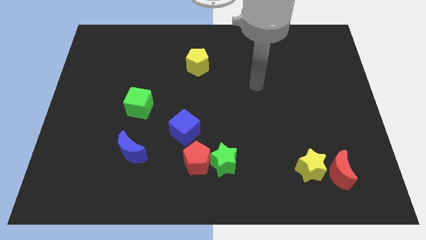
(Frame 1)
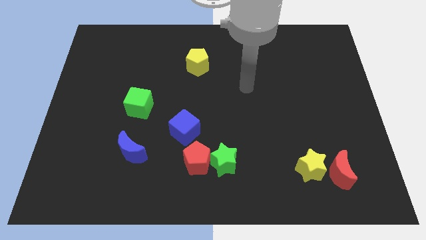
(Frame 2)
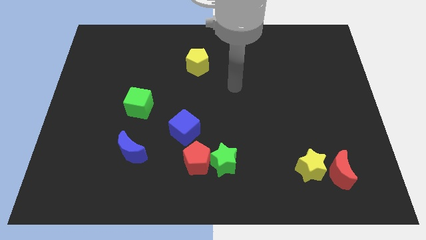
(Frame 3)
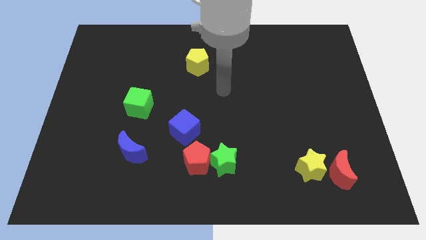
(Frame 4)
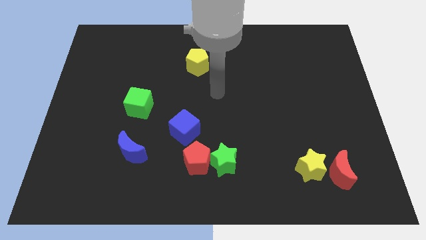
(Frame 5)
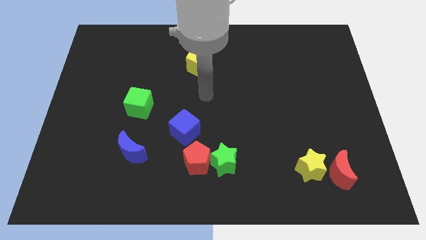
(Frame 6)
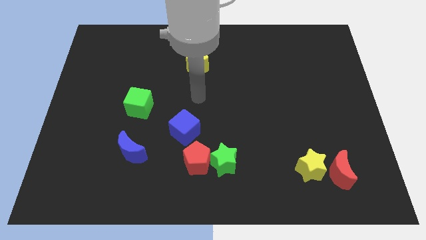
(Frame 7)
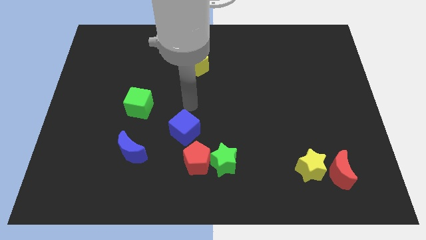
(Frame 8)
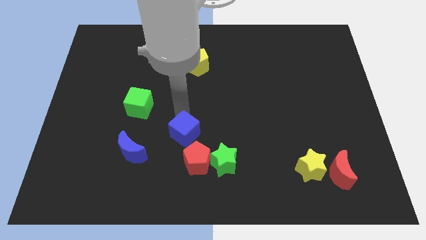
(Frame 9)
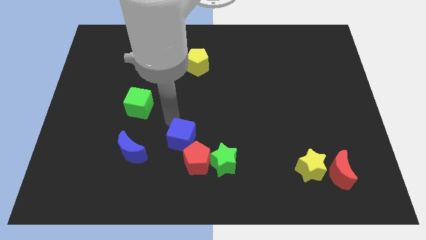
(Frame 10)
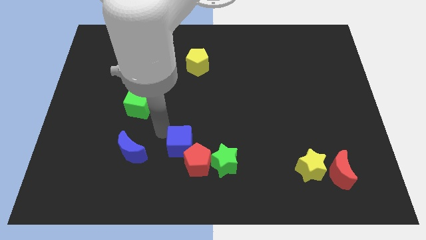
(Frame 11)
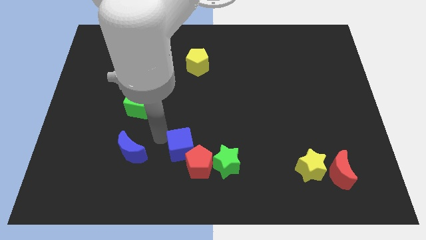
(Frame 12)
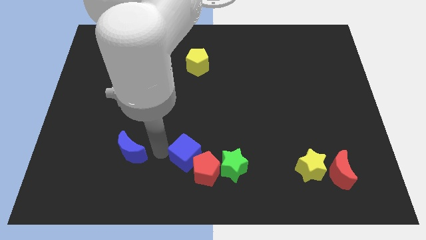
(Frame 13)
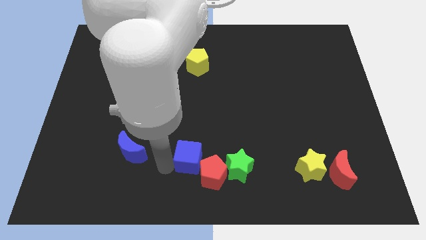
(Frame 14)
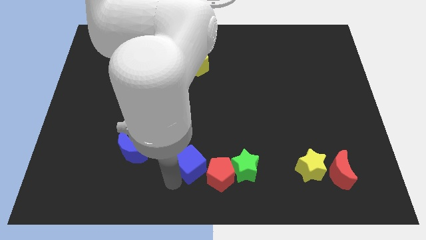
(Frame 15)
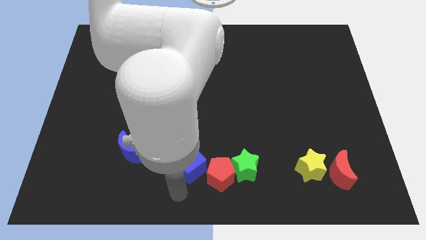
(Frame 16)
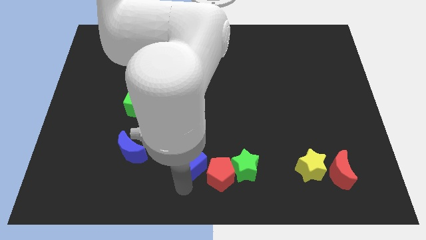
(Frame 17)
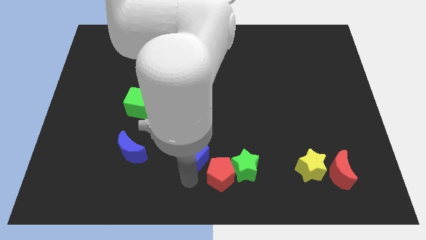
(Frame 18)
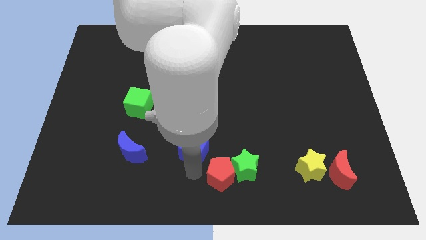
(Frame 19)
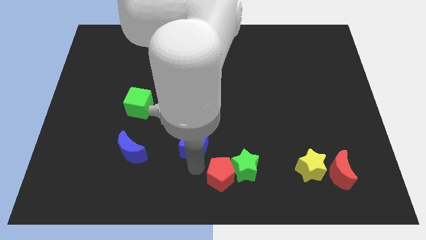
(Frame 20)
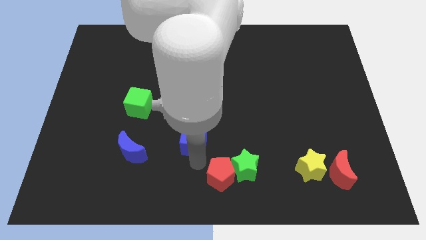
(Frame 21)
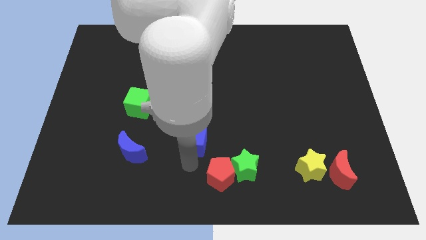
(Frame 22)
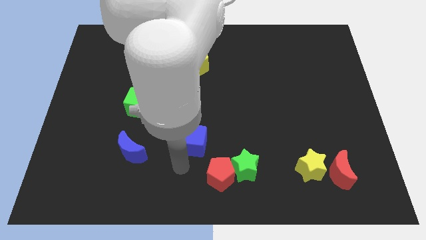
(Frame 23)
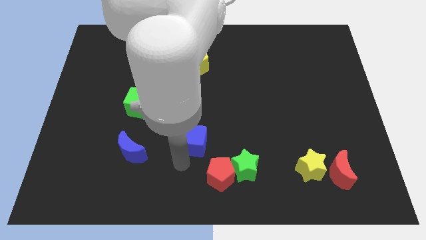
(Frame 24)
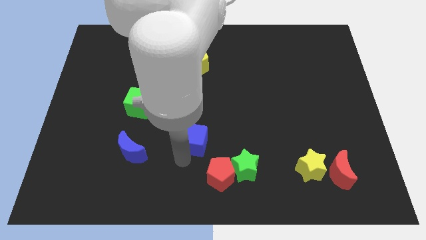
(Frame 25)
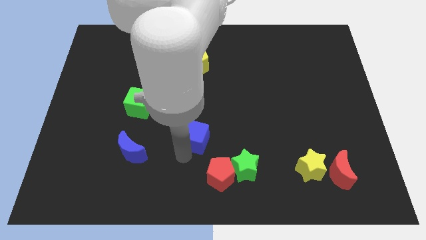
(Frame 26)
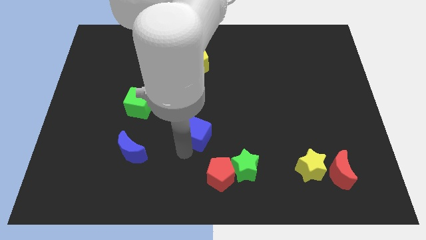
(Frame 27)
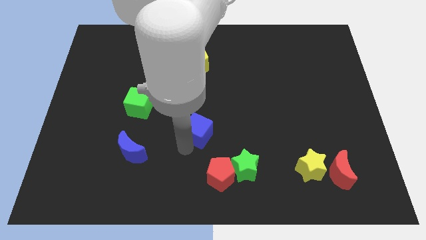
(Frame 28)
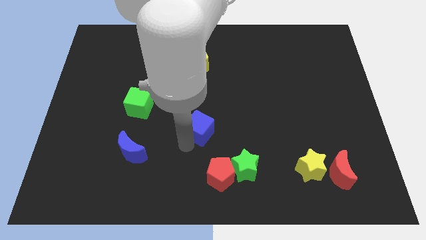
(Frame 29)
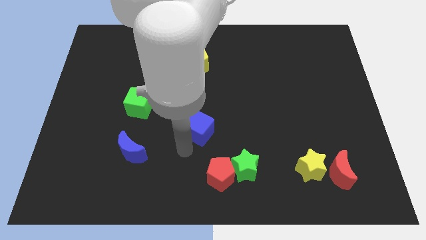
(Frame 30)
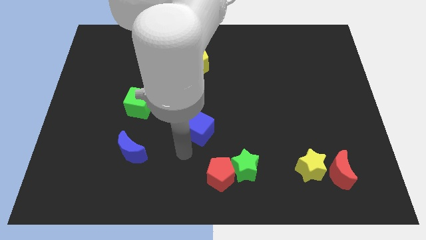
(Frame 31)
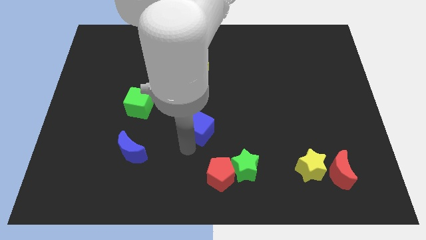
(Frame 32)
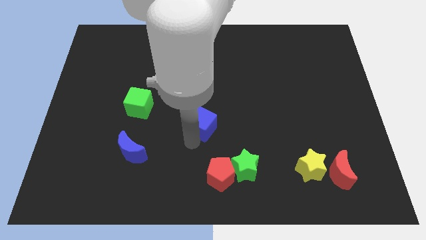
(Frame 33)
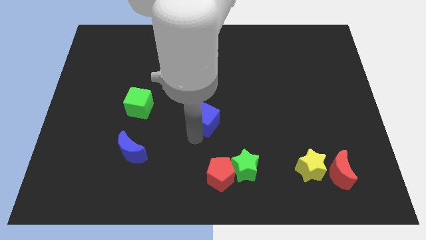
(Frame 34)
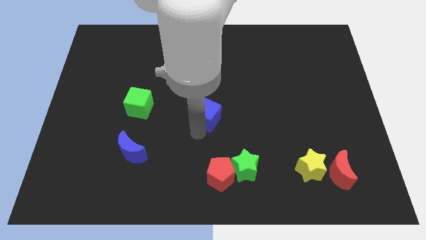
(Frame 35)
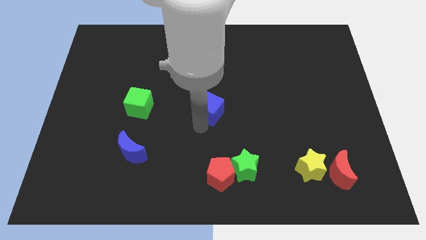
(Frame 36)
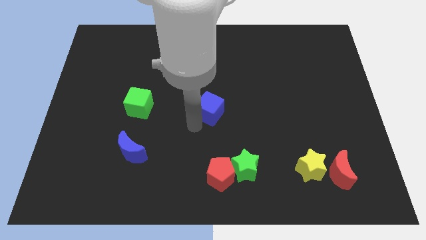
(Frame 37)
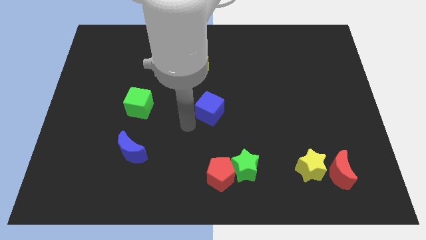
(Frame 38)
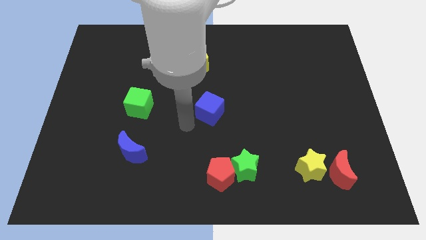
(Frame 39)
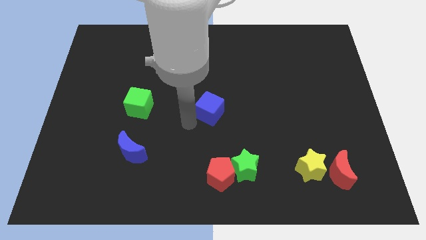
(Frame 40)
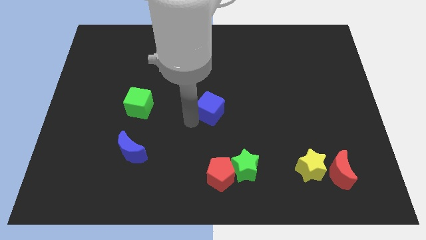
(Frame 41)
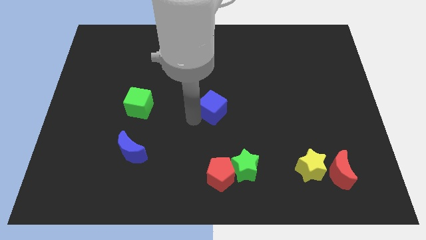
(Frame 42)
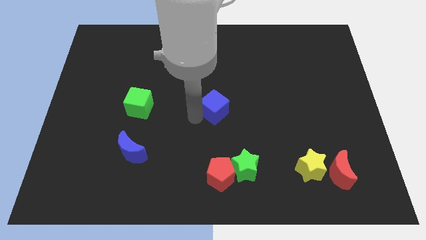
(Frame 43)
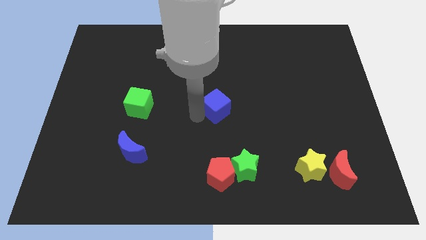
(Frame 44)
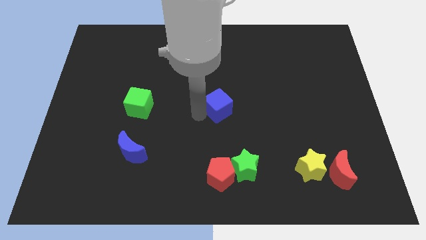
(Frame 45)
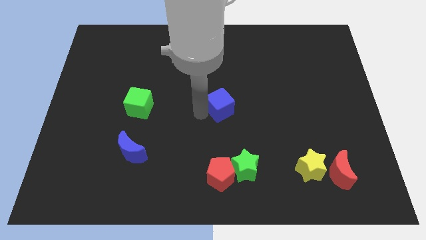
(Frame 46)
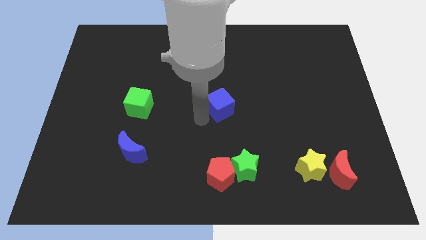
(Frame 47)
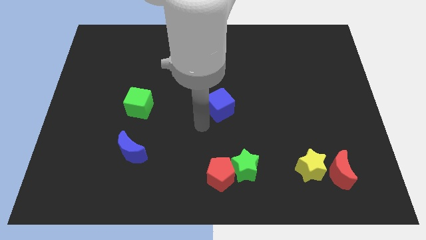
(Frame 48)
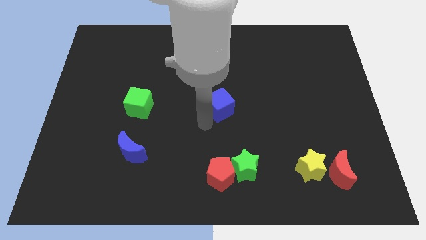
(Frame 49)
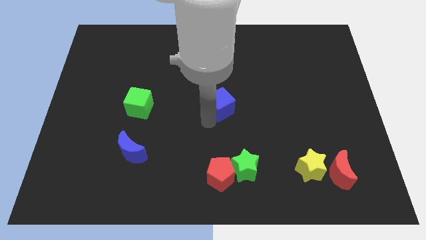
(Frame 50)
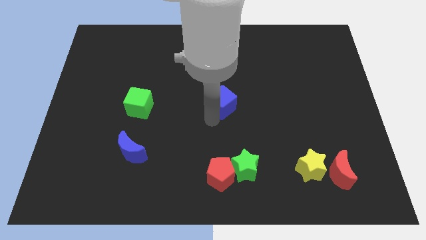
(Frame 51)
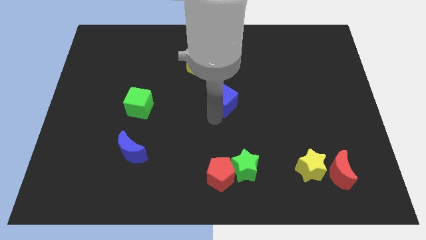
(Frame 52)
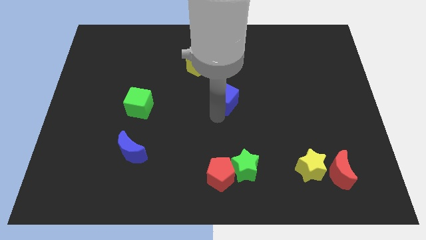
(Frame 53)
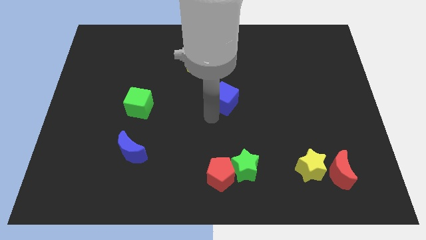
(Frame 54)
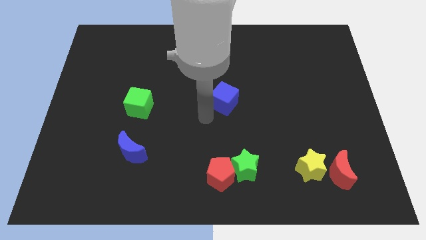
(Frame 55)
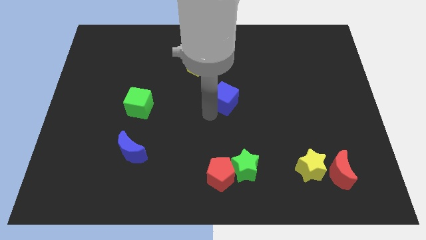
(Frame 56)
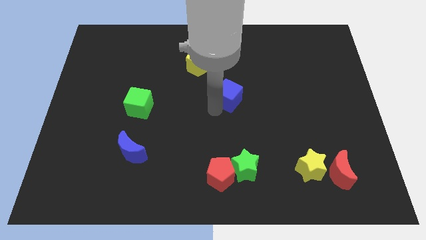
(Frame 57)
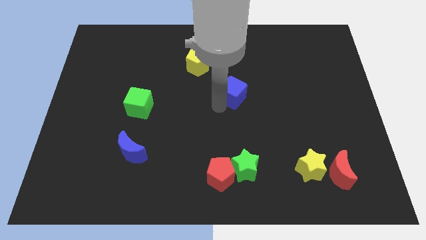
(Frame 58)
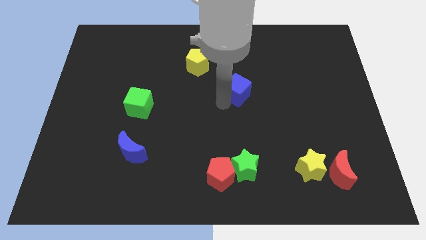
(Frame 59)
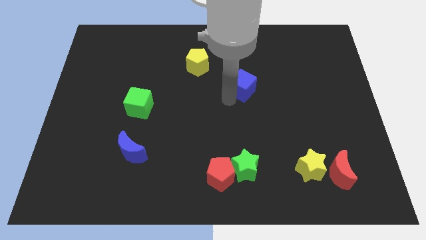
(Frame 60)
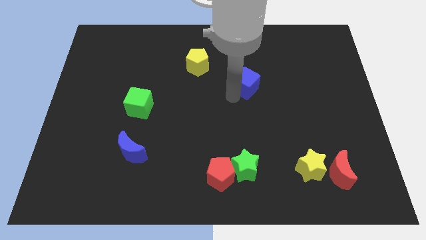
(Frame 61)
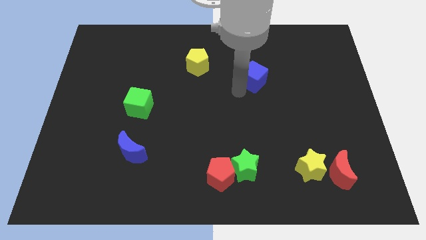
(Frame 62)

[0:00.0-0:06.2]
push the blue cube upwards and then to the right

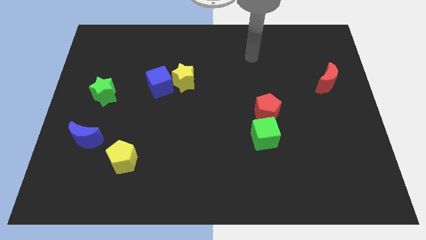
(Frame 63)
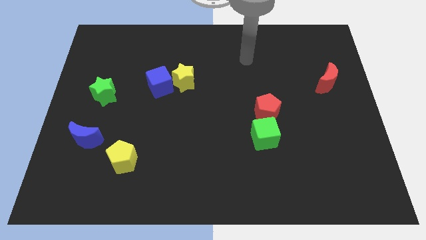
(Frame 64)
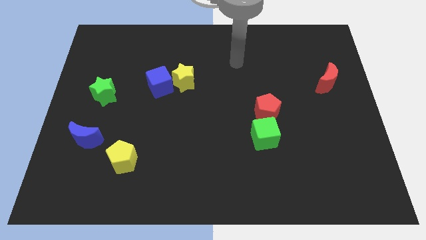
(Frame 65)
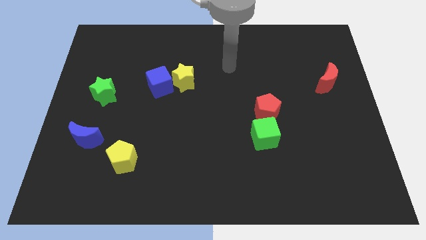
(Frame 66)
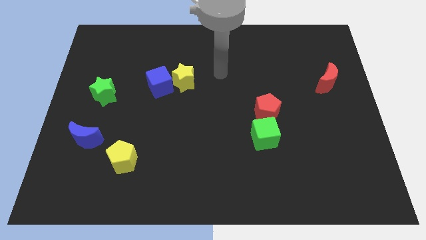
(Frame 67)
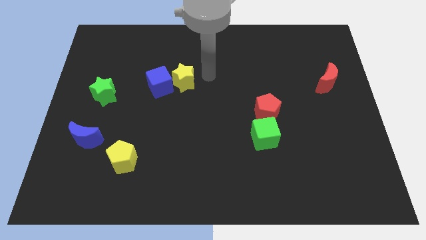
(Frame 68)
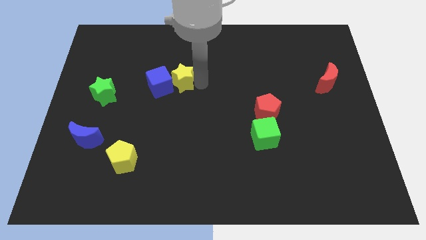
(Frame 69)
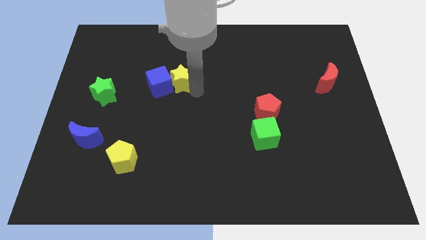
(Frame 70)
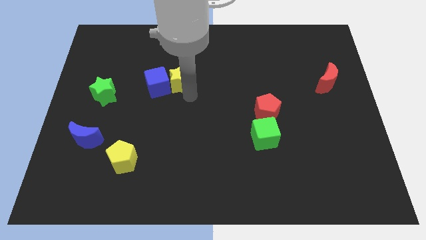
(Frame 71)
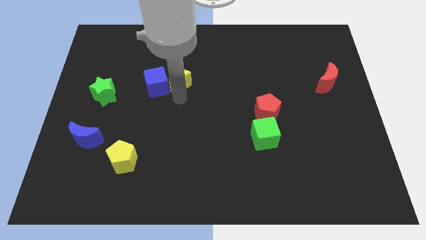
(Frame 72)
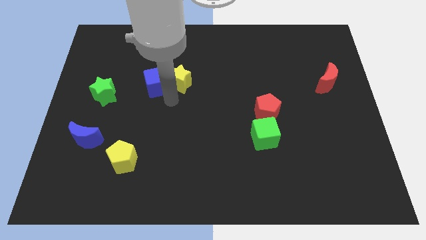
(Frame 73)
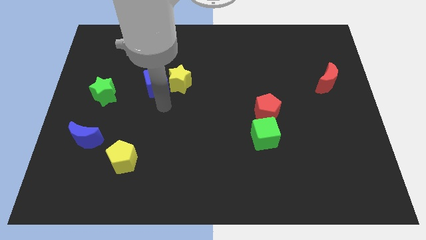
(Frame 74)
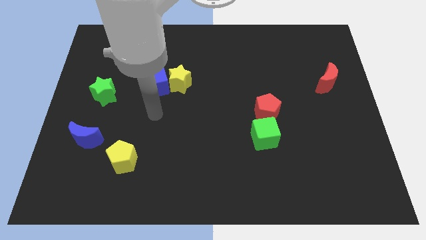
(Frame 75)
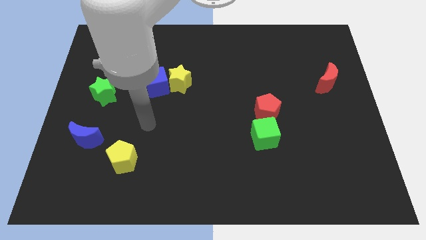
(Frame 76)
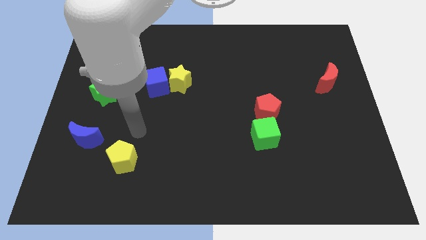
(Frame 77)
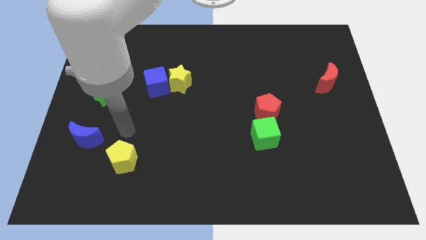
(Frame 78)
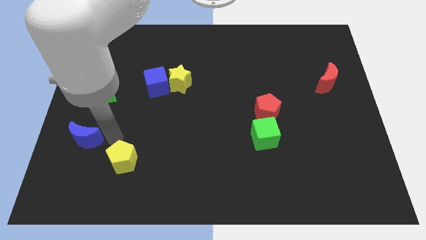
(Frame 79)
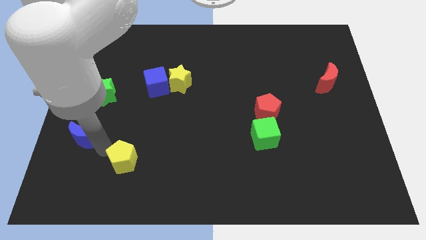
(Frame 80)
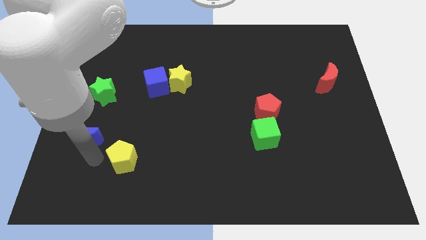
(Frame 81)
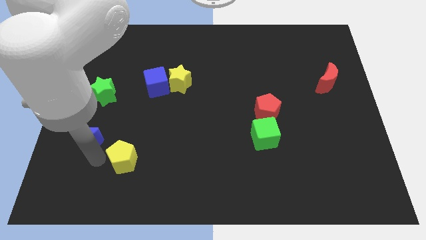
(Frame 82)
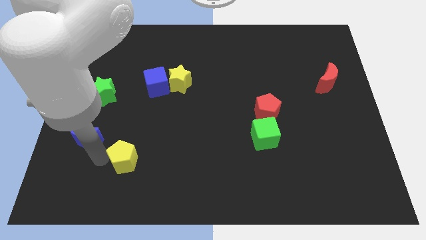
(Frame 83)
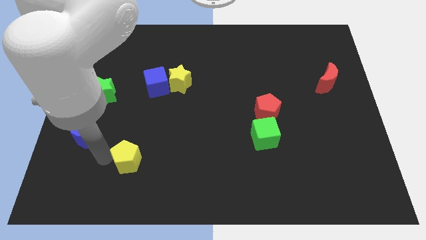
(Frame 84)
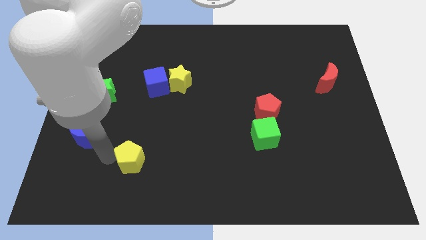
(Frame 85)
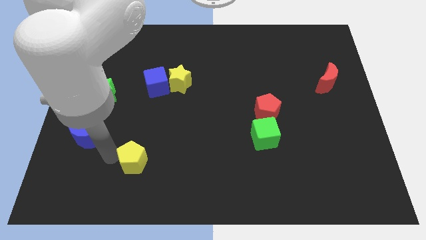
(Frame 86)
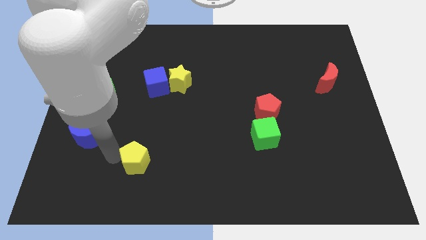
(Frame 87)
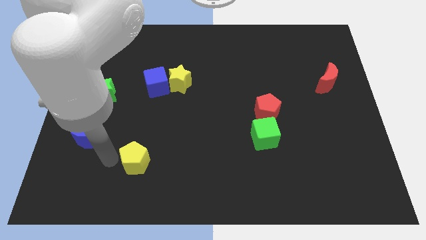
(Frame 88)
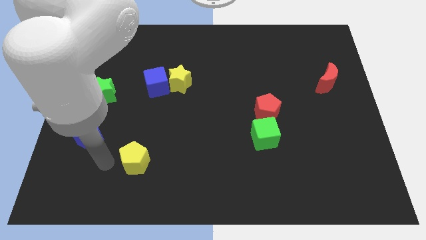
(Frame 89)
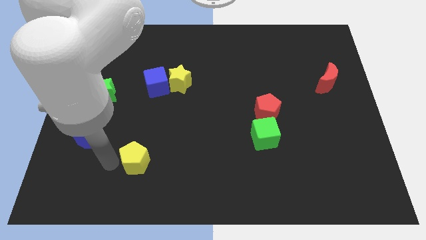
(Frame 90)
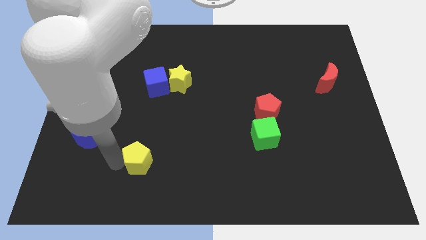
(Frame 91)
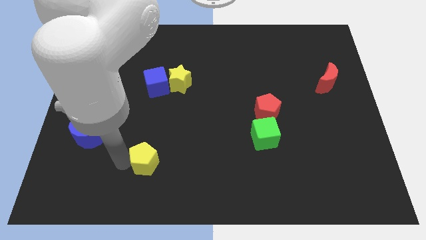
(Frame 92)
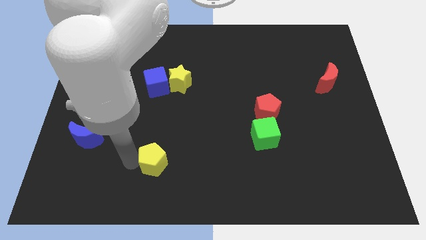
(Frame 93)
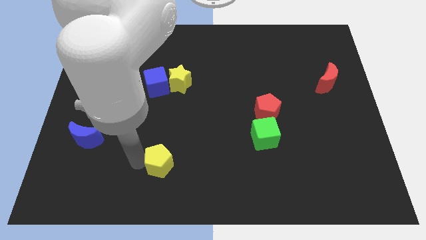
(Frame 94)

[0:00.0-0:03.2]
slide the yellow pentagon right slightly
